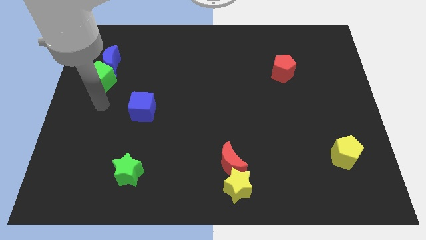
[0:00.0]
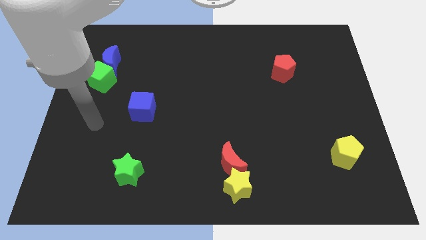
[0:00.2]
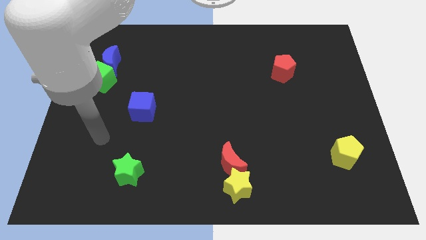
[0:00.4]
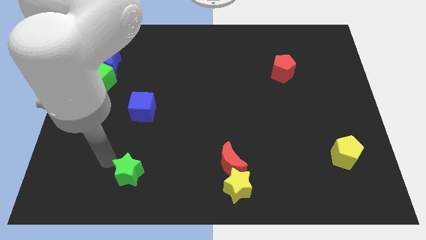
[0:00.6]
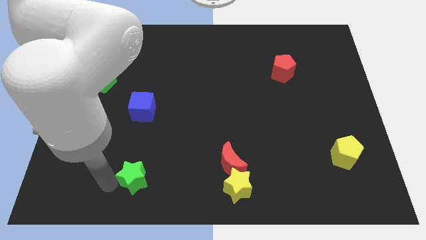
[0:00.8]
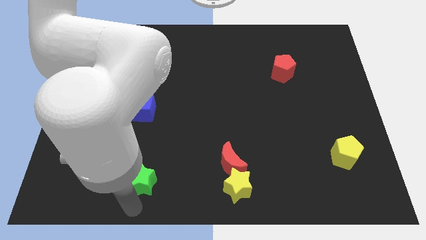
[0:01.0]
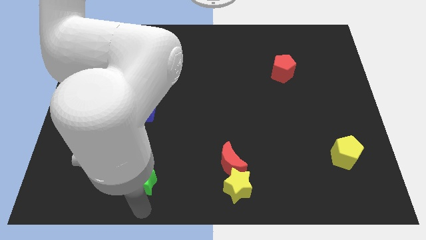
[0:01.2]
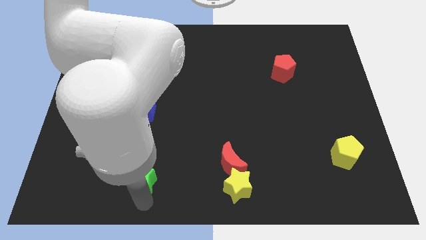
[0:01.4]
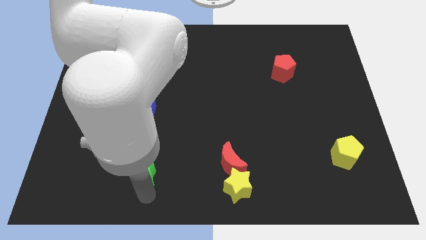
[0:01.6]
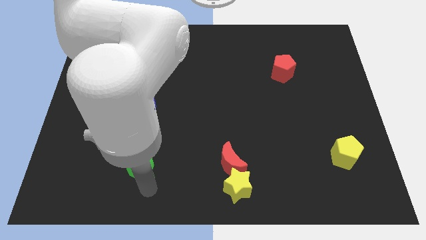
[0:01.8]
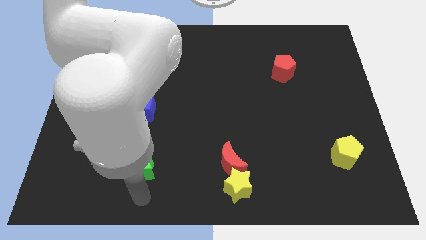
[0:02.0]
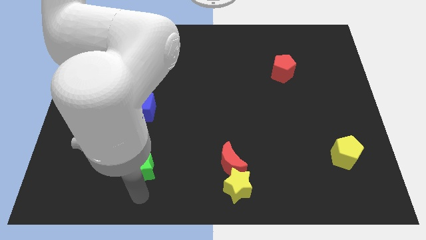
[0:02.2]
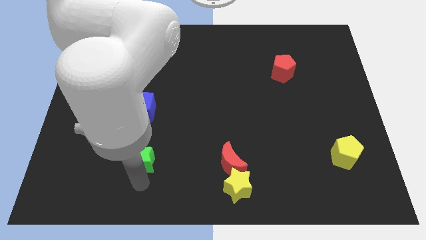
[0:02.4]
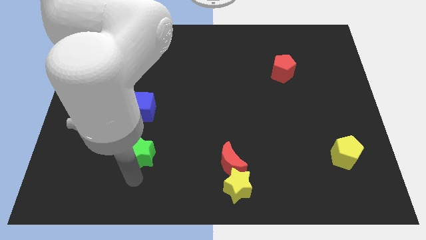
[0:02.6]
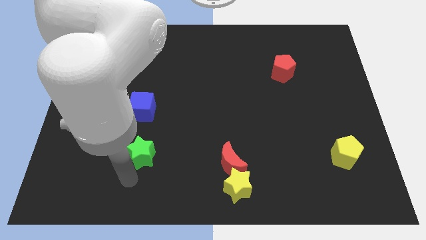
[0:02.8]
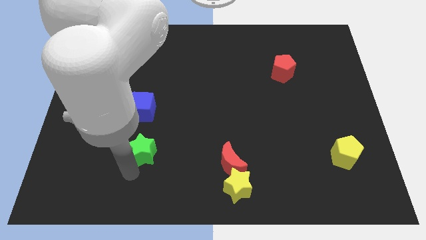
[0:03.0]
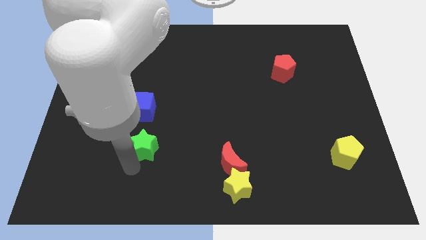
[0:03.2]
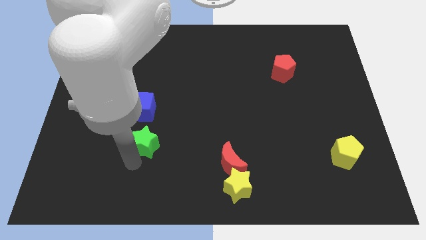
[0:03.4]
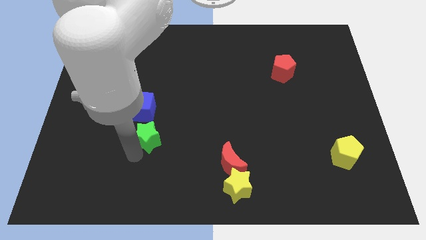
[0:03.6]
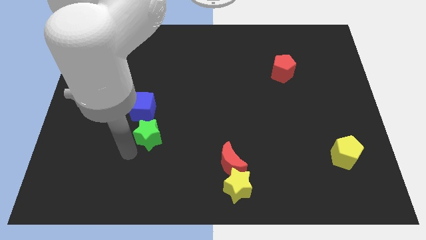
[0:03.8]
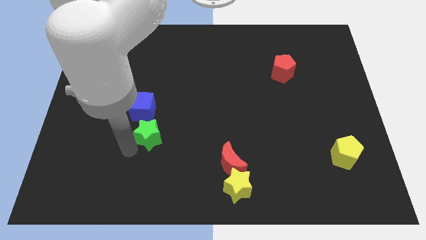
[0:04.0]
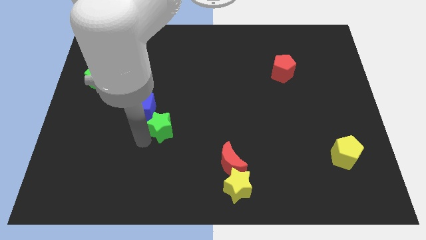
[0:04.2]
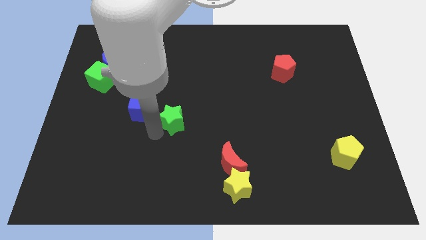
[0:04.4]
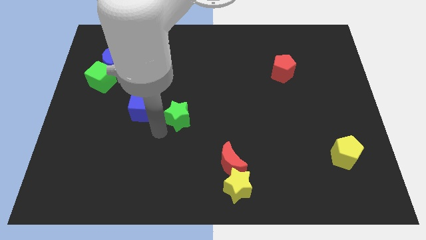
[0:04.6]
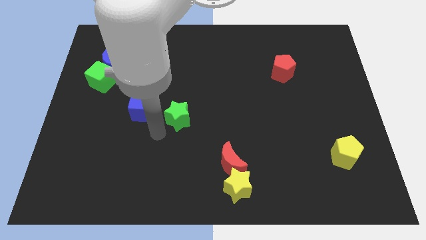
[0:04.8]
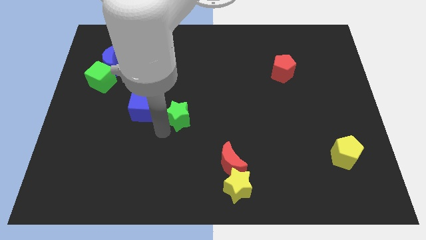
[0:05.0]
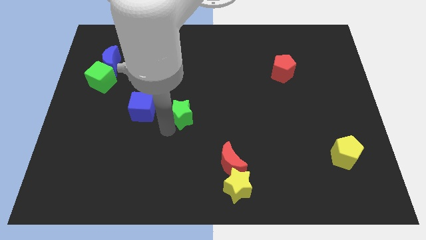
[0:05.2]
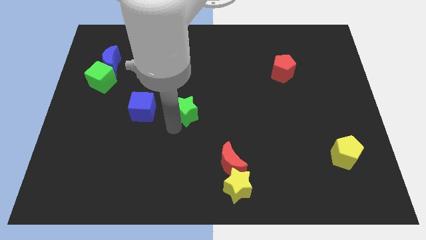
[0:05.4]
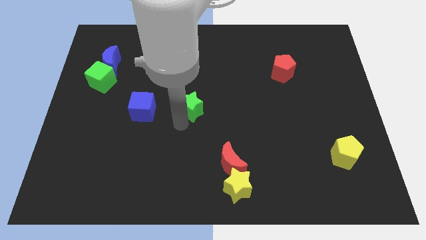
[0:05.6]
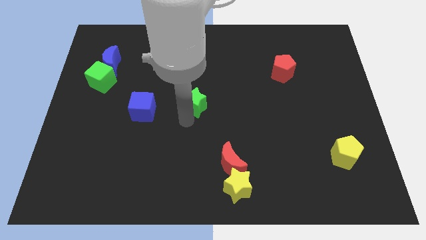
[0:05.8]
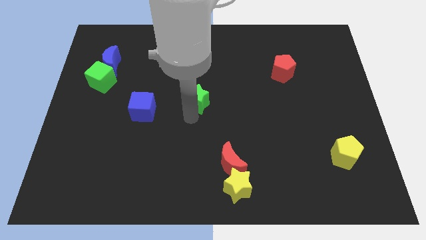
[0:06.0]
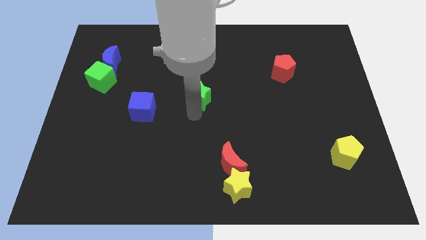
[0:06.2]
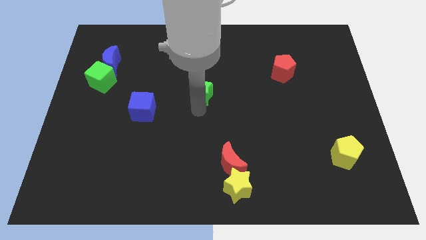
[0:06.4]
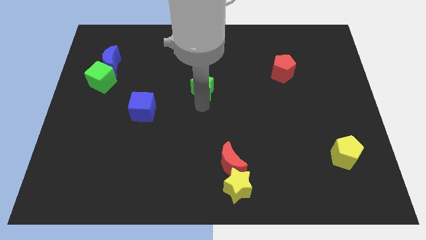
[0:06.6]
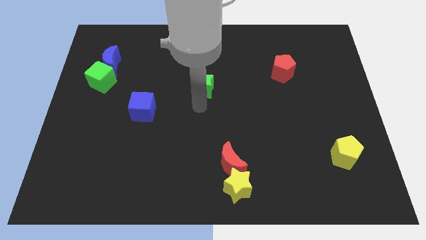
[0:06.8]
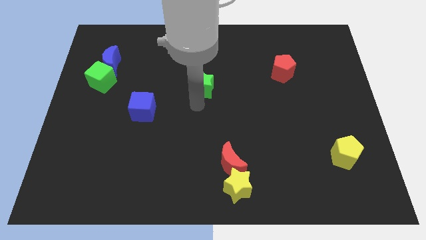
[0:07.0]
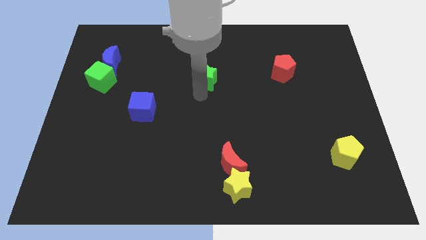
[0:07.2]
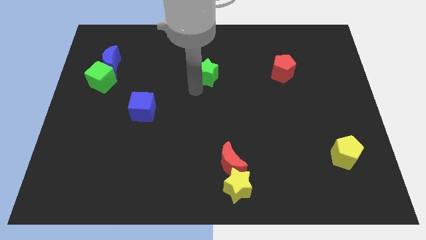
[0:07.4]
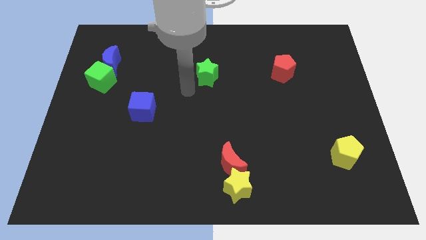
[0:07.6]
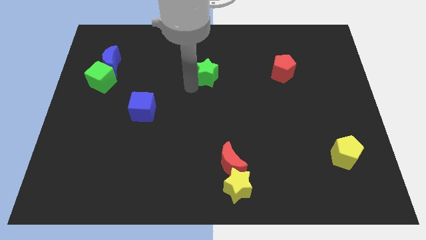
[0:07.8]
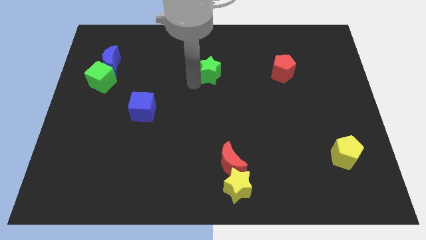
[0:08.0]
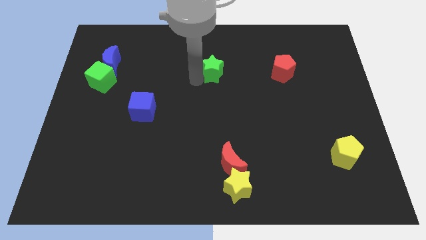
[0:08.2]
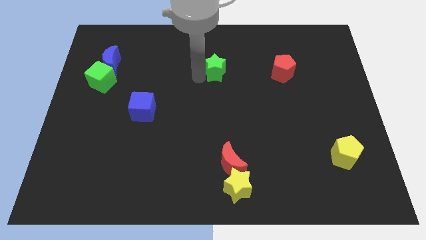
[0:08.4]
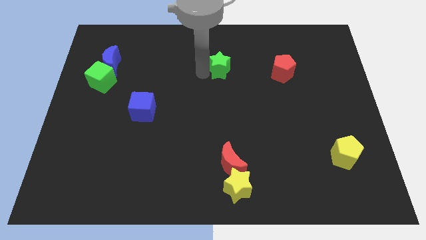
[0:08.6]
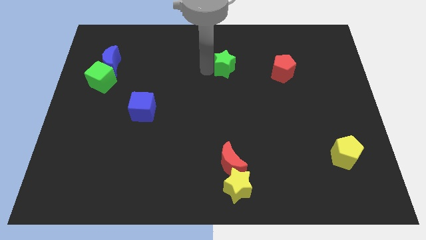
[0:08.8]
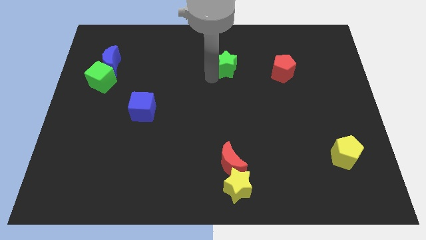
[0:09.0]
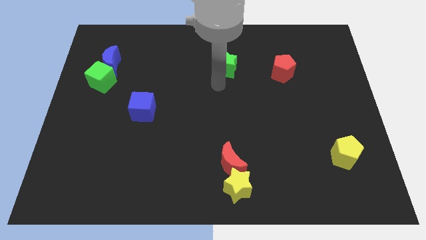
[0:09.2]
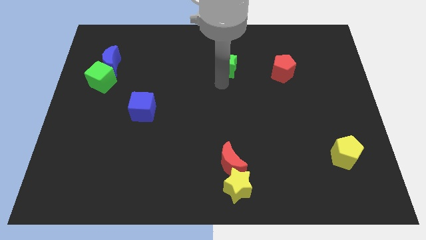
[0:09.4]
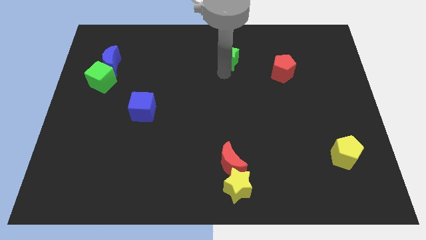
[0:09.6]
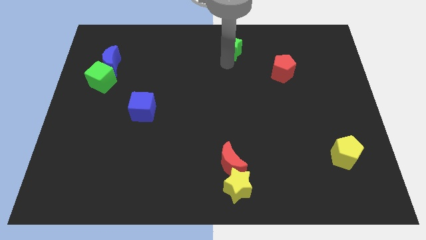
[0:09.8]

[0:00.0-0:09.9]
put the green star to the top

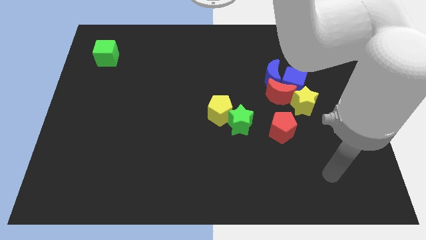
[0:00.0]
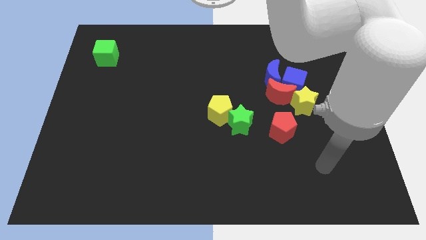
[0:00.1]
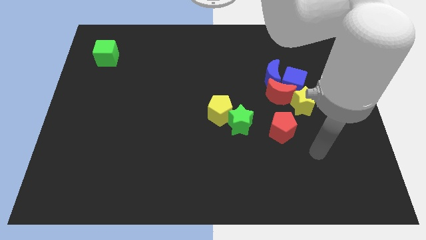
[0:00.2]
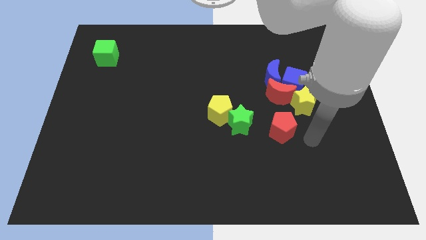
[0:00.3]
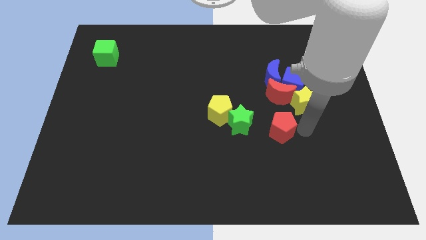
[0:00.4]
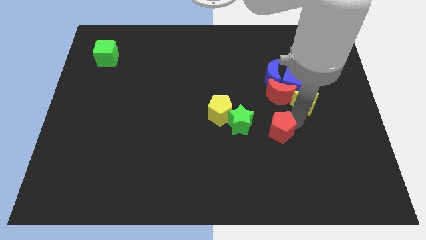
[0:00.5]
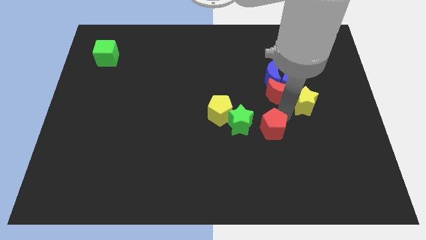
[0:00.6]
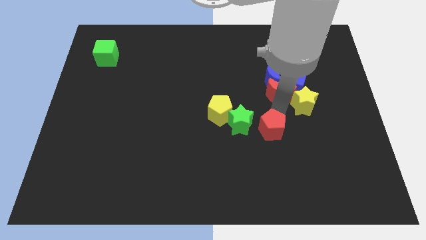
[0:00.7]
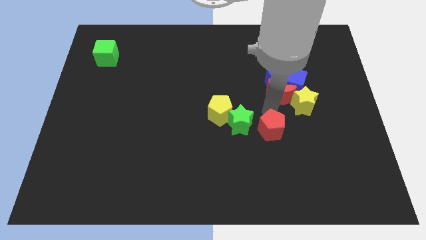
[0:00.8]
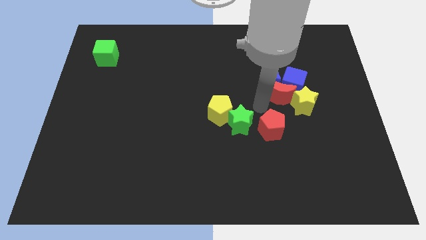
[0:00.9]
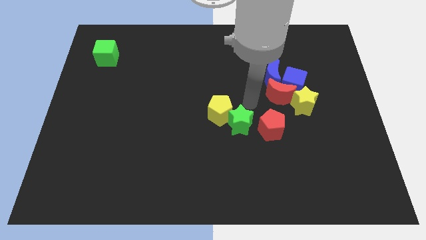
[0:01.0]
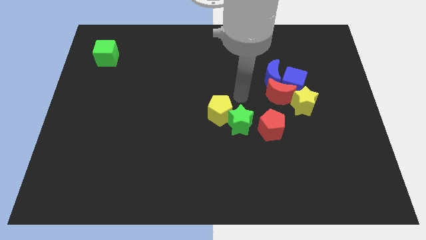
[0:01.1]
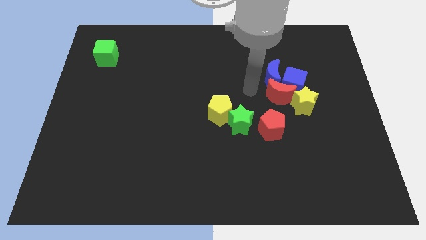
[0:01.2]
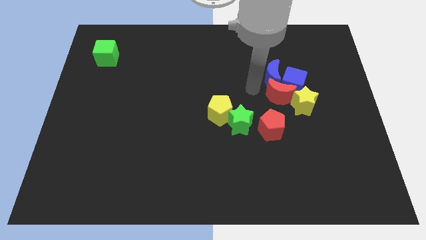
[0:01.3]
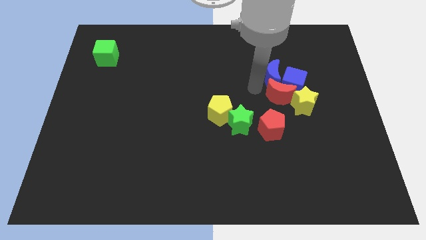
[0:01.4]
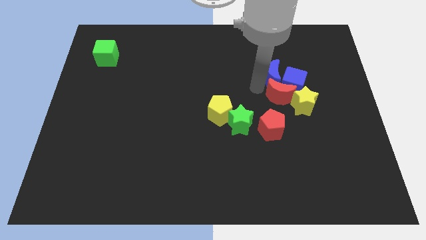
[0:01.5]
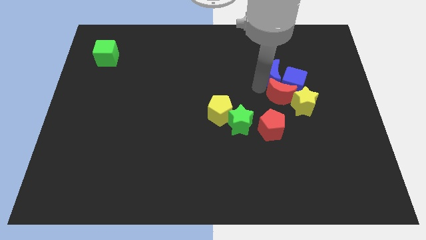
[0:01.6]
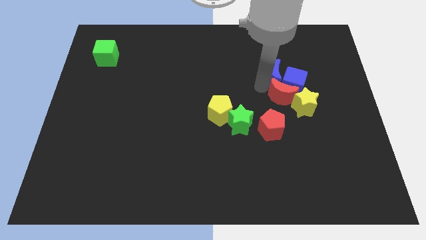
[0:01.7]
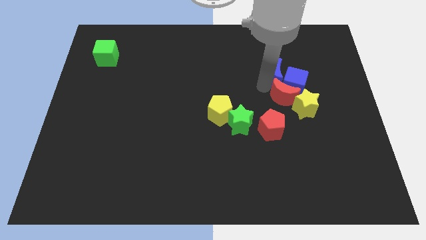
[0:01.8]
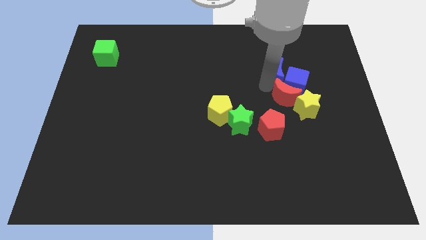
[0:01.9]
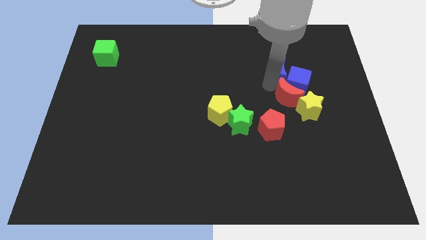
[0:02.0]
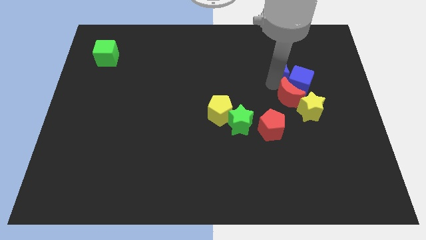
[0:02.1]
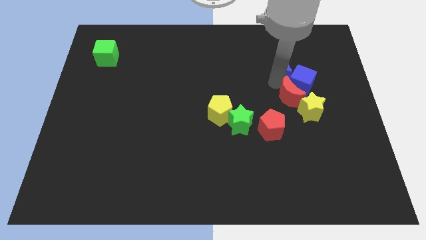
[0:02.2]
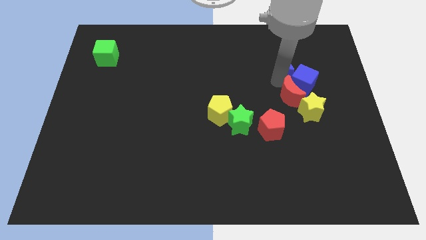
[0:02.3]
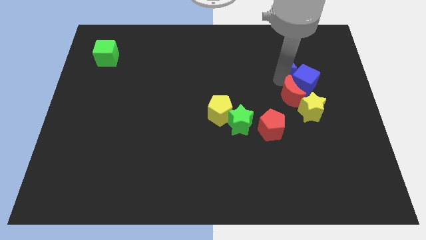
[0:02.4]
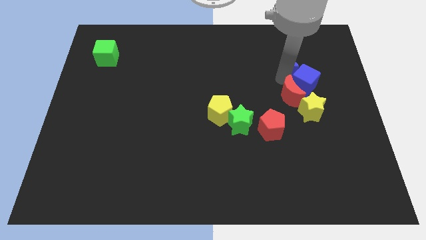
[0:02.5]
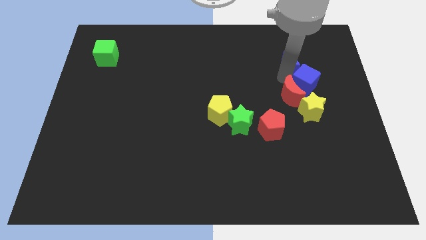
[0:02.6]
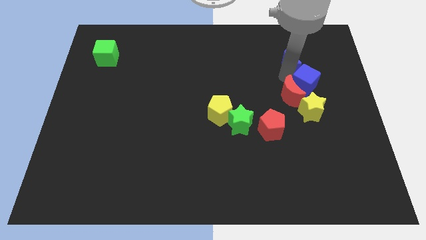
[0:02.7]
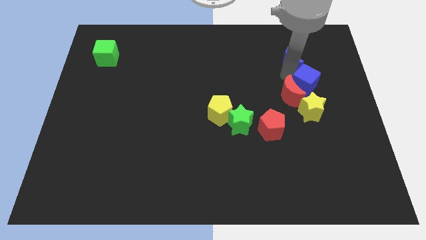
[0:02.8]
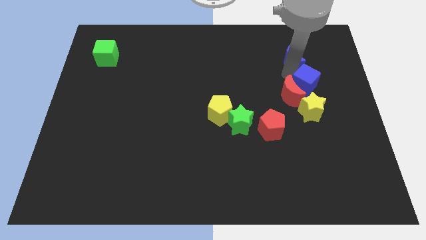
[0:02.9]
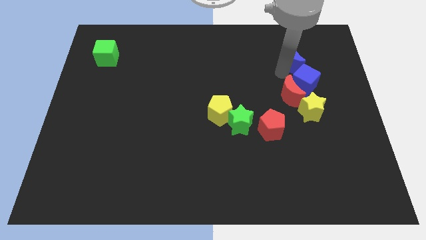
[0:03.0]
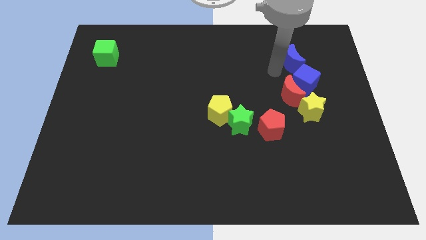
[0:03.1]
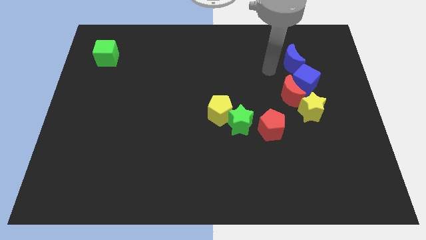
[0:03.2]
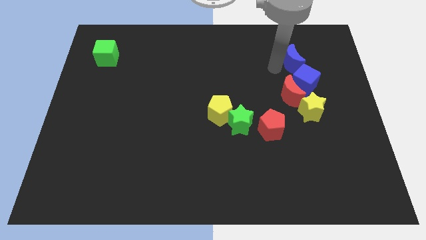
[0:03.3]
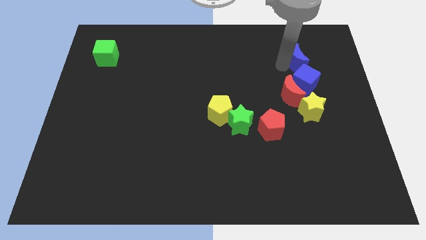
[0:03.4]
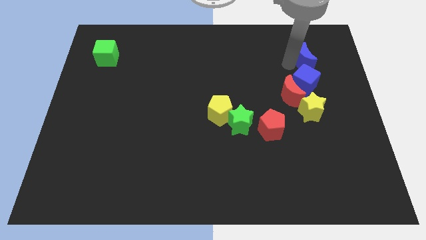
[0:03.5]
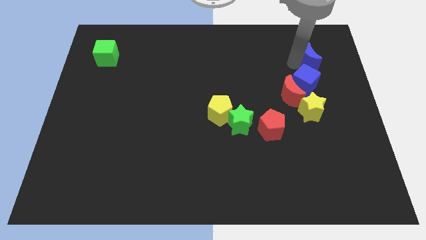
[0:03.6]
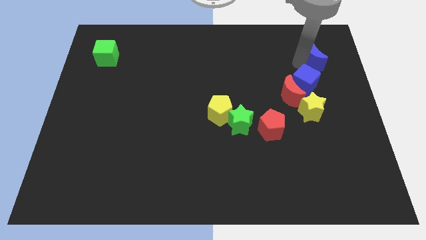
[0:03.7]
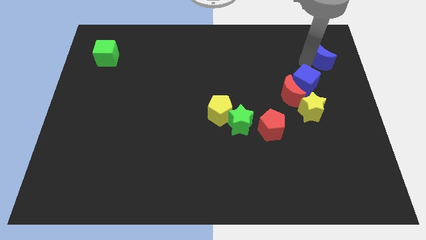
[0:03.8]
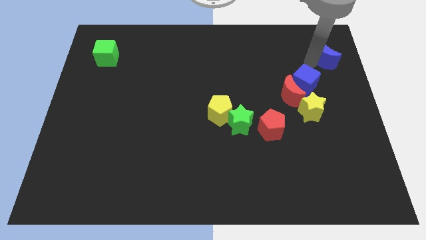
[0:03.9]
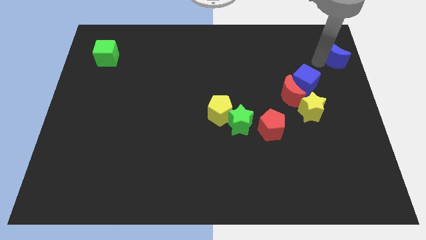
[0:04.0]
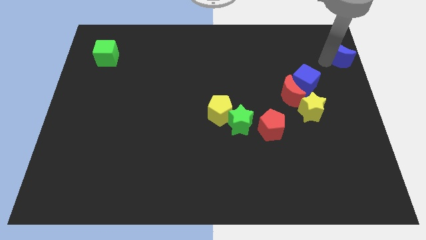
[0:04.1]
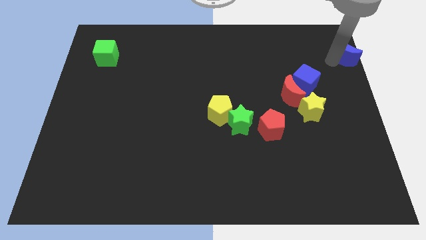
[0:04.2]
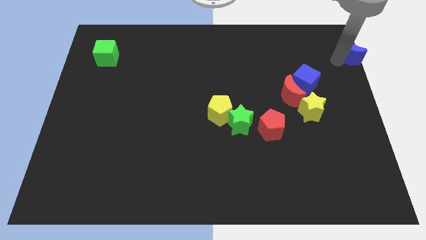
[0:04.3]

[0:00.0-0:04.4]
put the blue moon to the upper right corner
